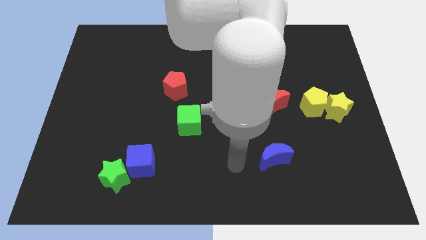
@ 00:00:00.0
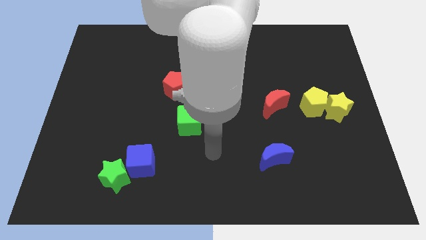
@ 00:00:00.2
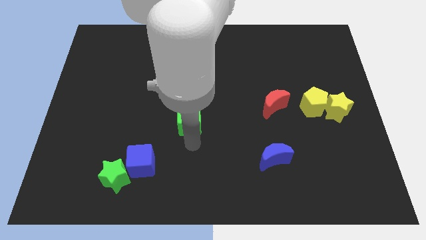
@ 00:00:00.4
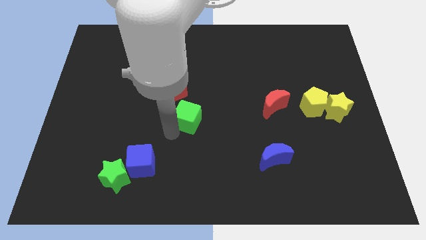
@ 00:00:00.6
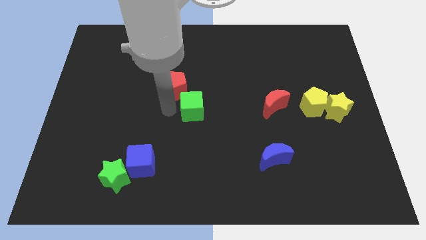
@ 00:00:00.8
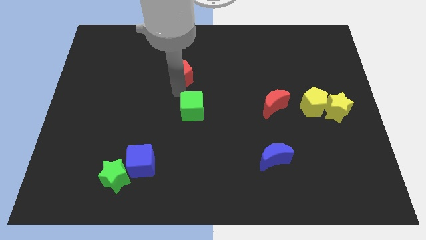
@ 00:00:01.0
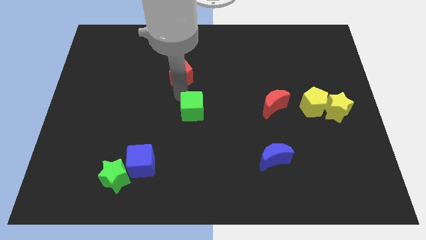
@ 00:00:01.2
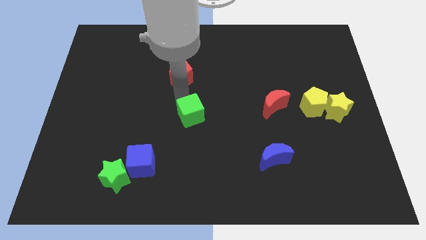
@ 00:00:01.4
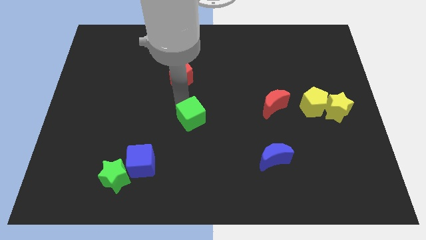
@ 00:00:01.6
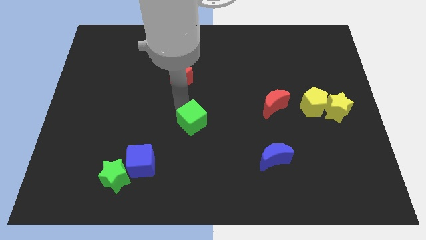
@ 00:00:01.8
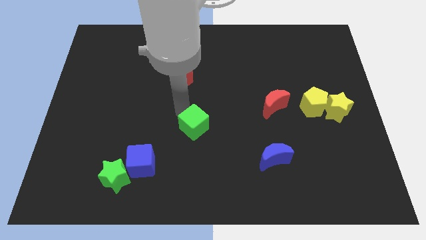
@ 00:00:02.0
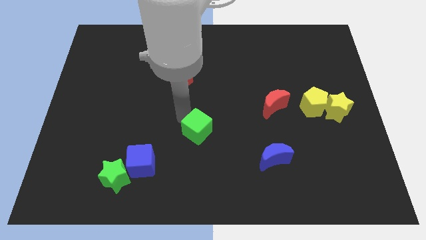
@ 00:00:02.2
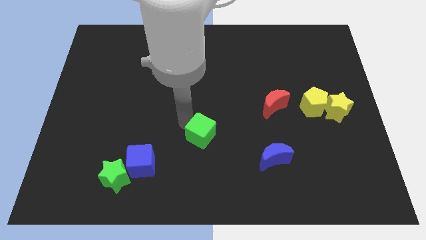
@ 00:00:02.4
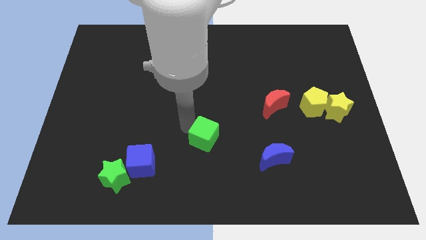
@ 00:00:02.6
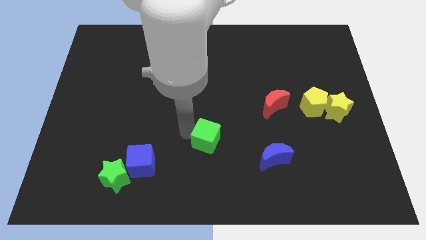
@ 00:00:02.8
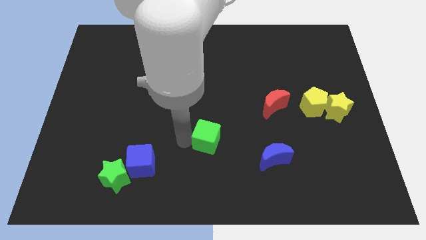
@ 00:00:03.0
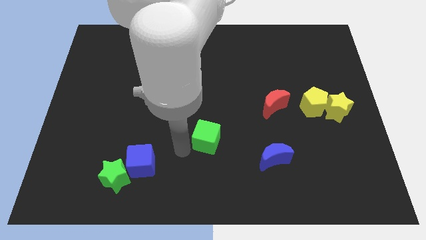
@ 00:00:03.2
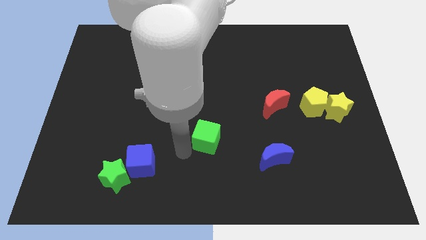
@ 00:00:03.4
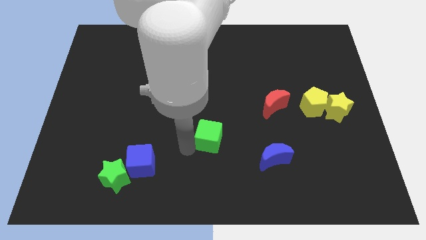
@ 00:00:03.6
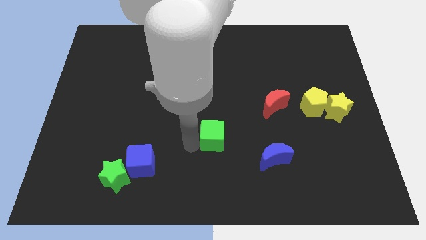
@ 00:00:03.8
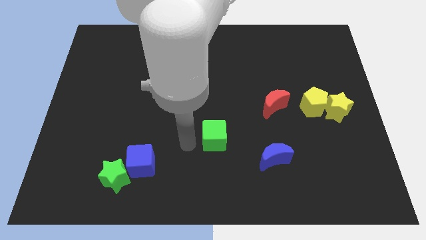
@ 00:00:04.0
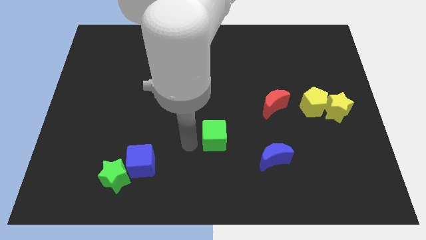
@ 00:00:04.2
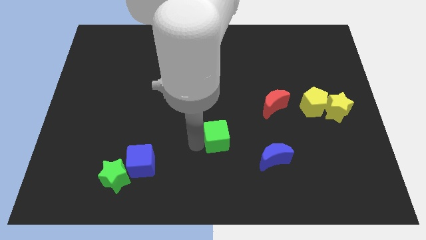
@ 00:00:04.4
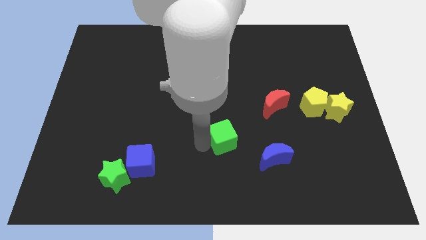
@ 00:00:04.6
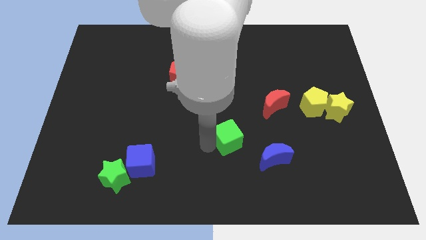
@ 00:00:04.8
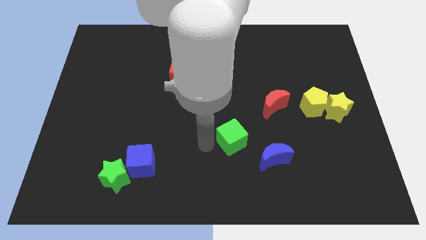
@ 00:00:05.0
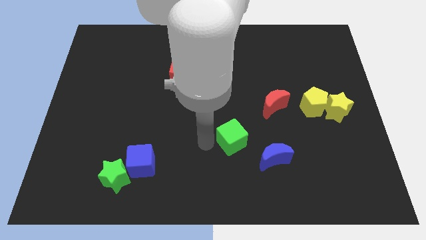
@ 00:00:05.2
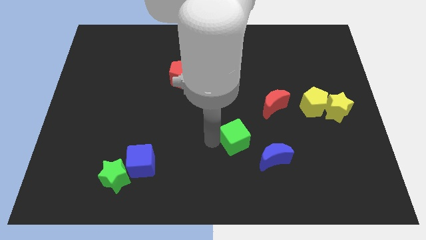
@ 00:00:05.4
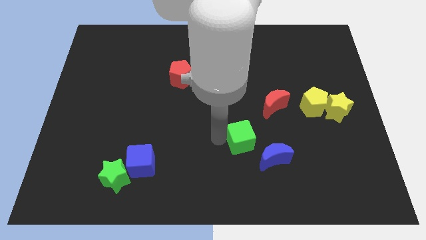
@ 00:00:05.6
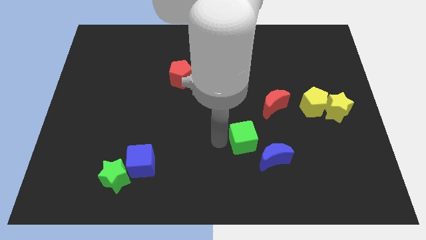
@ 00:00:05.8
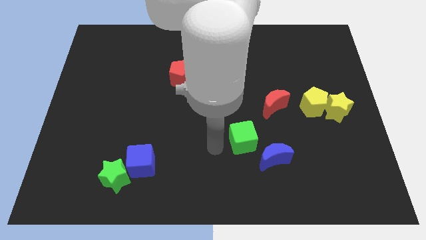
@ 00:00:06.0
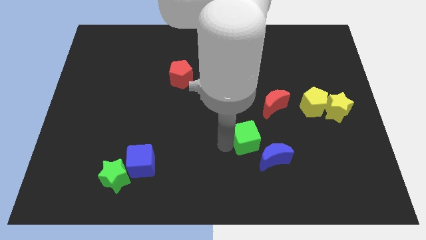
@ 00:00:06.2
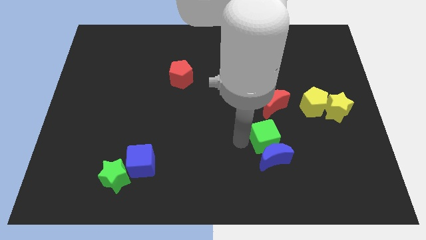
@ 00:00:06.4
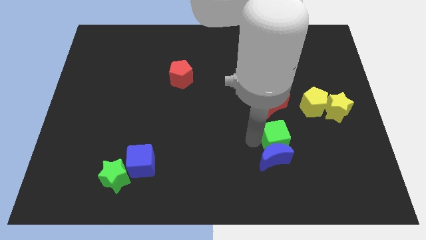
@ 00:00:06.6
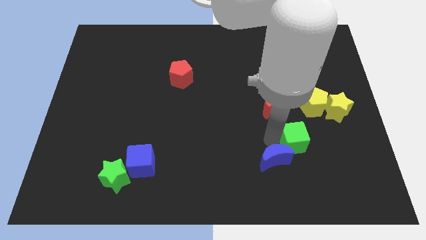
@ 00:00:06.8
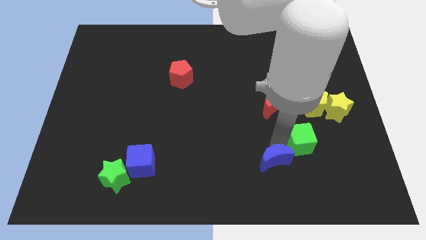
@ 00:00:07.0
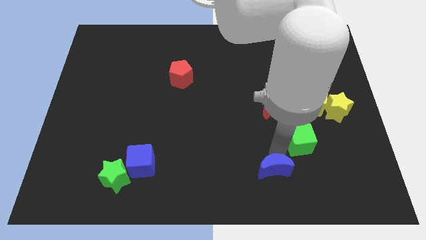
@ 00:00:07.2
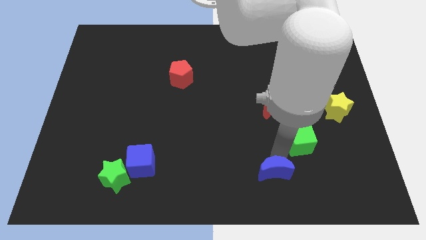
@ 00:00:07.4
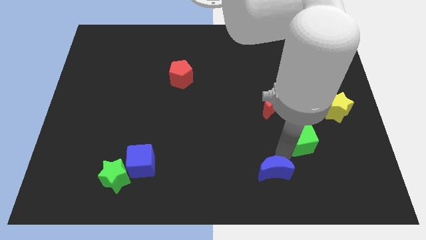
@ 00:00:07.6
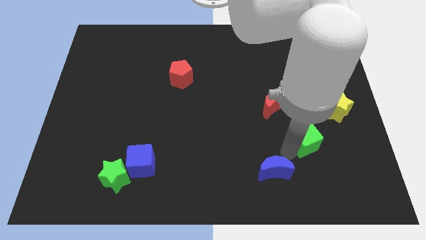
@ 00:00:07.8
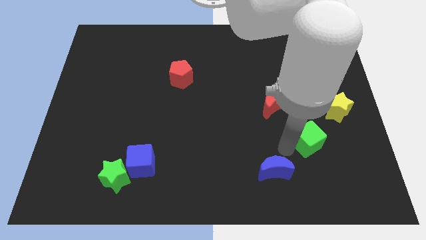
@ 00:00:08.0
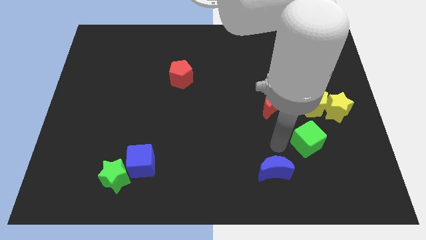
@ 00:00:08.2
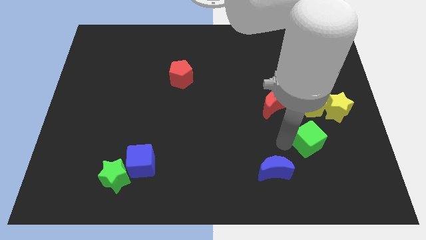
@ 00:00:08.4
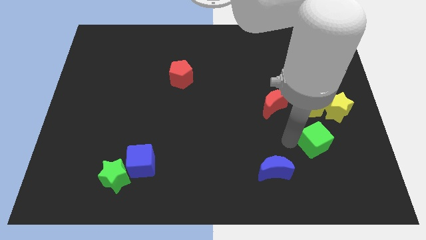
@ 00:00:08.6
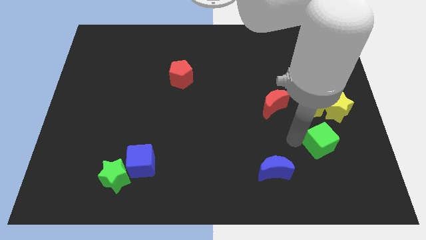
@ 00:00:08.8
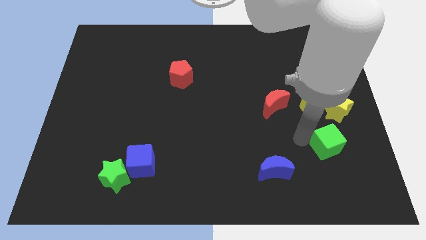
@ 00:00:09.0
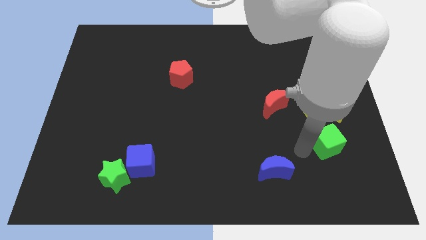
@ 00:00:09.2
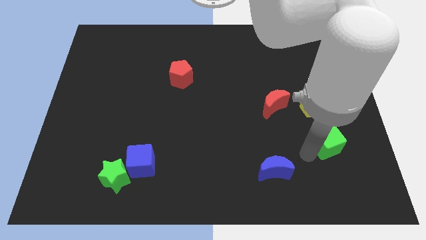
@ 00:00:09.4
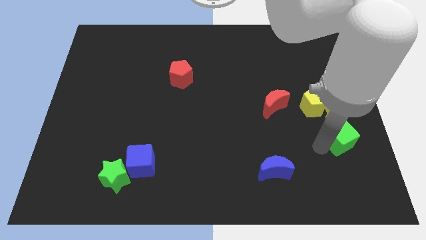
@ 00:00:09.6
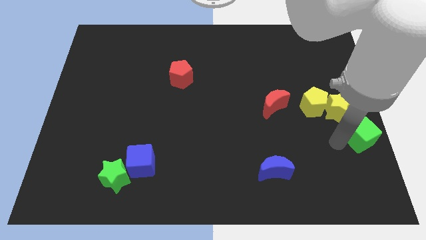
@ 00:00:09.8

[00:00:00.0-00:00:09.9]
slide the green cube to the center right
